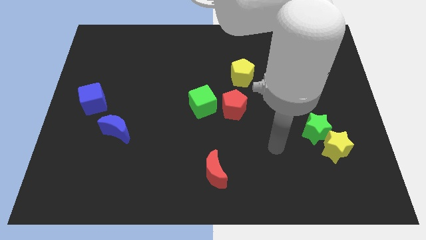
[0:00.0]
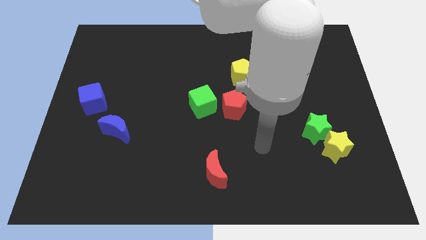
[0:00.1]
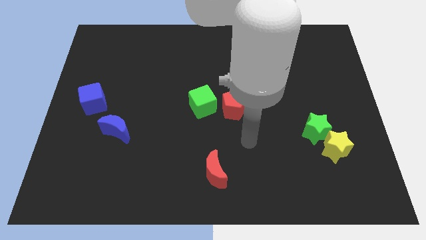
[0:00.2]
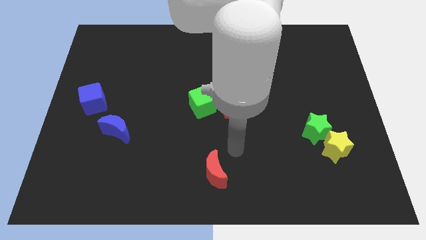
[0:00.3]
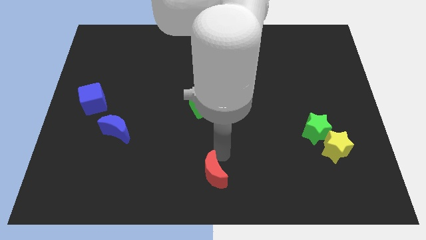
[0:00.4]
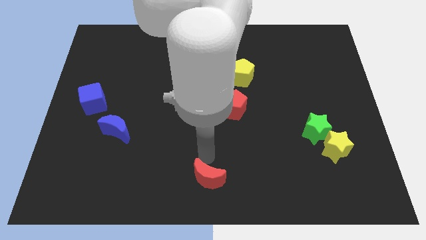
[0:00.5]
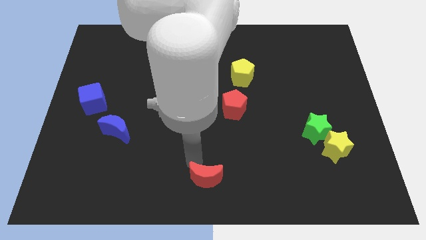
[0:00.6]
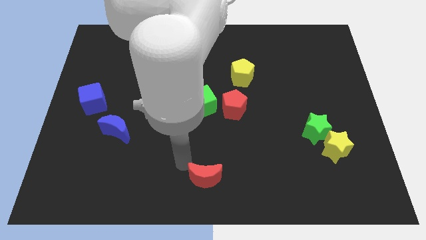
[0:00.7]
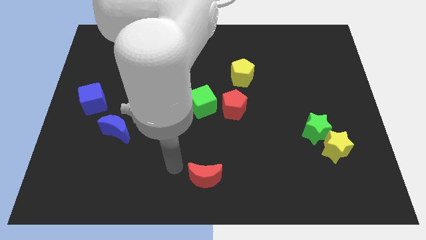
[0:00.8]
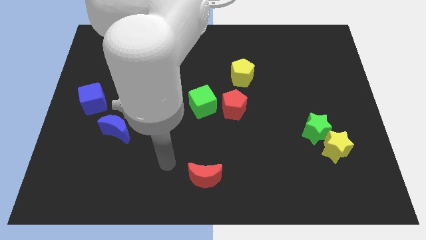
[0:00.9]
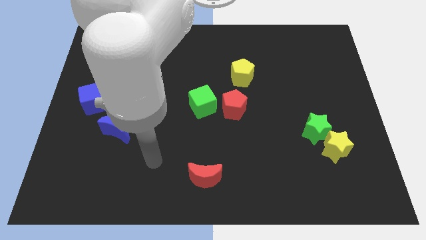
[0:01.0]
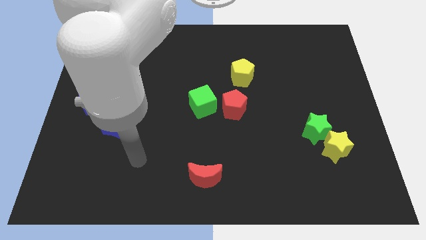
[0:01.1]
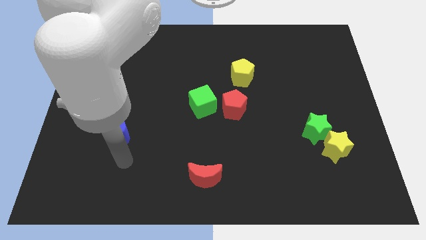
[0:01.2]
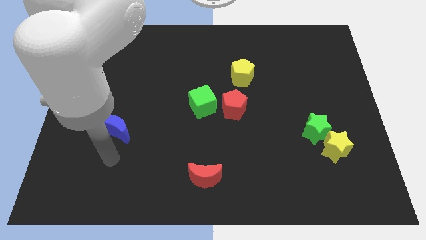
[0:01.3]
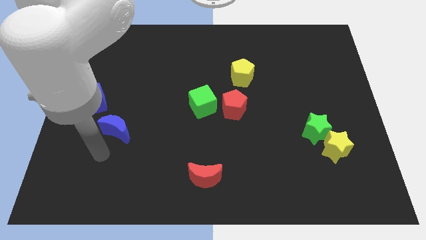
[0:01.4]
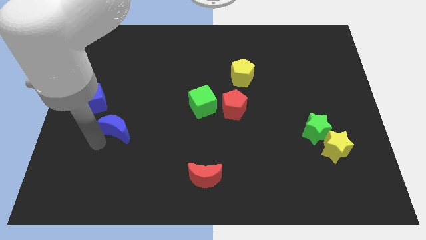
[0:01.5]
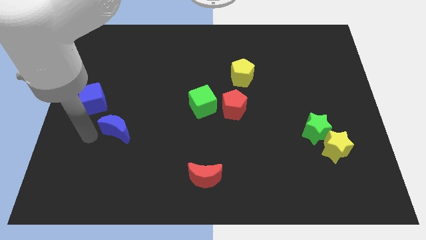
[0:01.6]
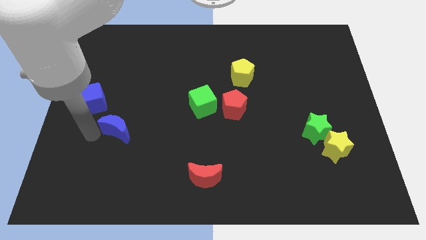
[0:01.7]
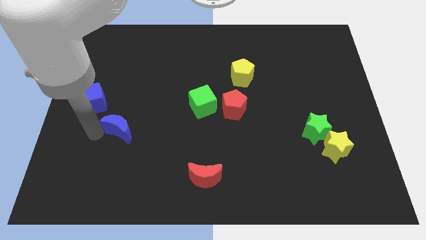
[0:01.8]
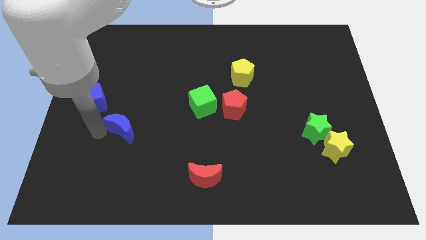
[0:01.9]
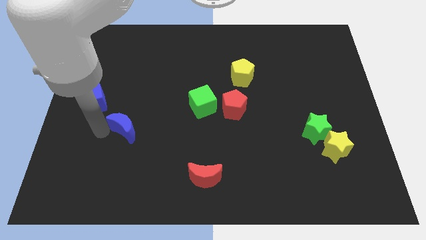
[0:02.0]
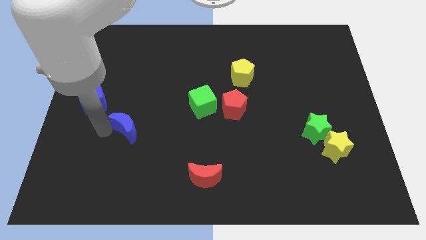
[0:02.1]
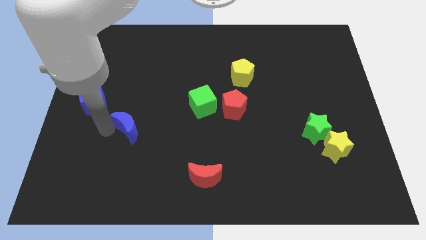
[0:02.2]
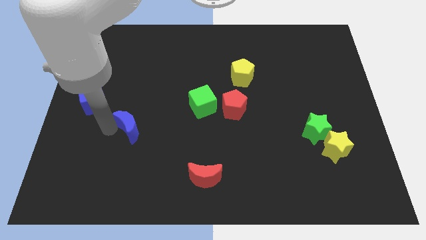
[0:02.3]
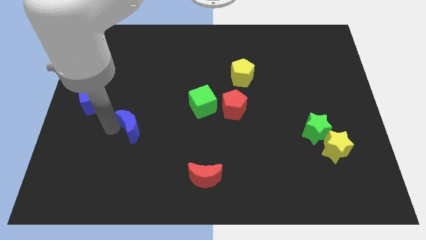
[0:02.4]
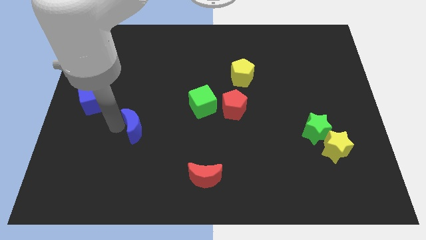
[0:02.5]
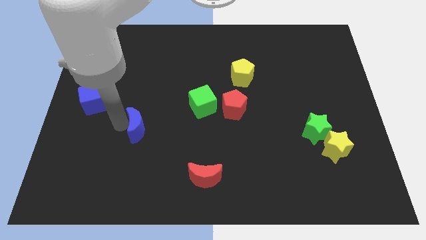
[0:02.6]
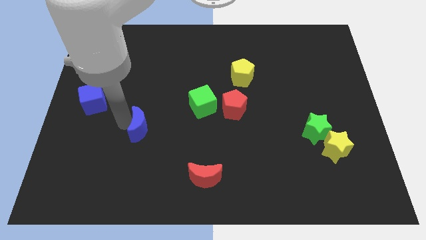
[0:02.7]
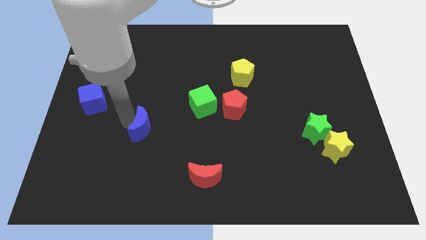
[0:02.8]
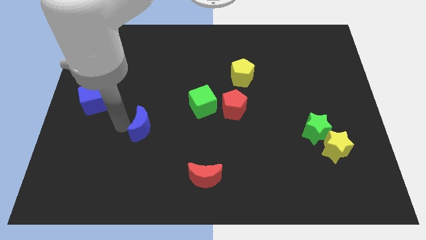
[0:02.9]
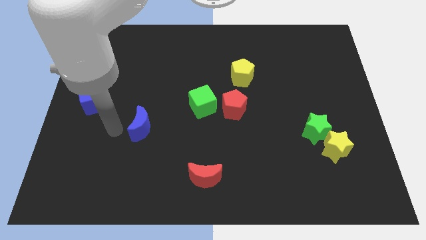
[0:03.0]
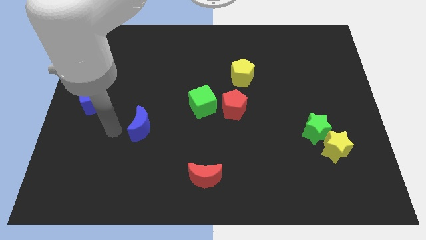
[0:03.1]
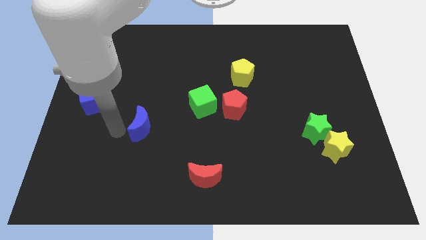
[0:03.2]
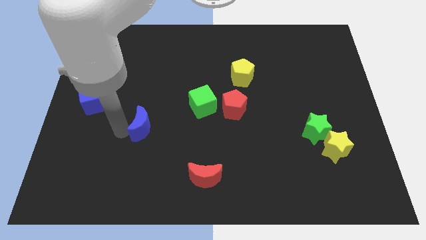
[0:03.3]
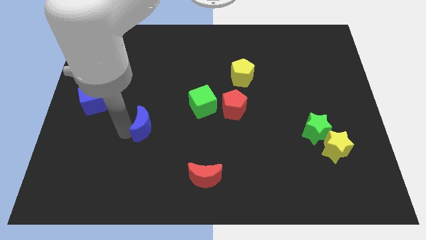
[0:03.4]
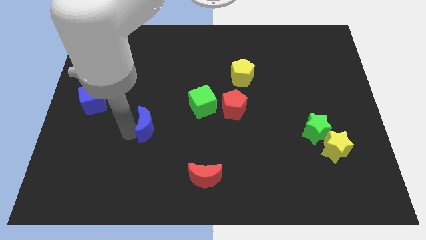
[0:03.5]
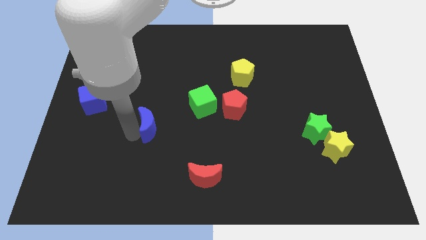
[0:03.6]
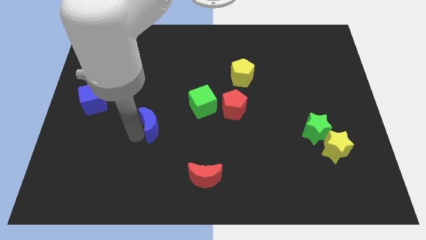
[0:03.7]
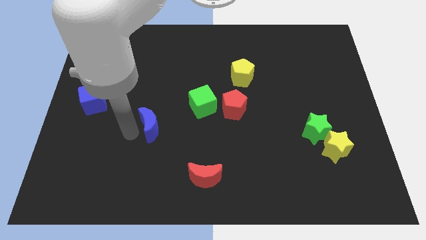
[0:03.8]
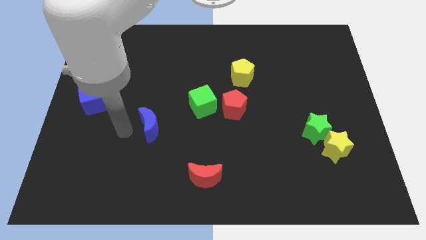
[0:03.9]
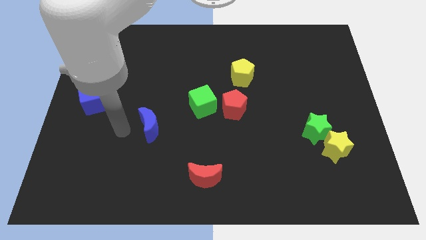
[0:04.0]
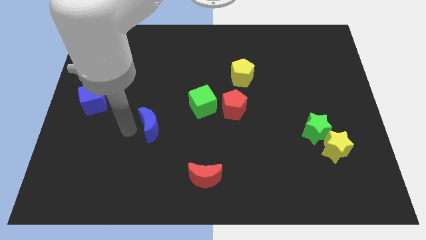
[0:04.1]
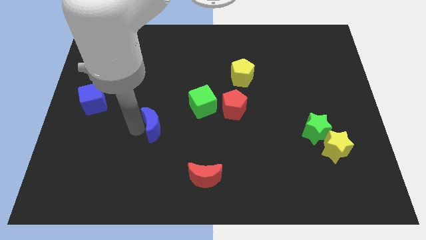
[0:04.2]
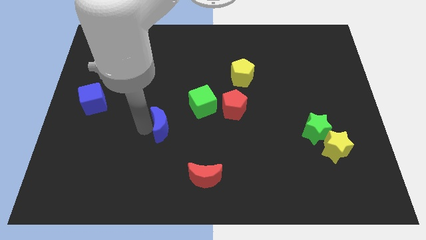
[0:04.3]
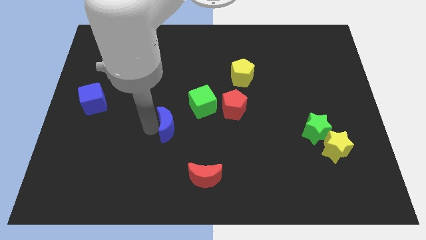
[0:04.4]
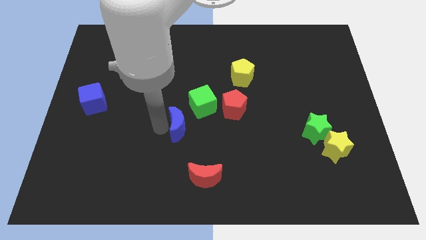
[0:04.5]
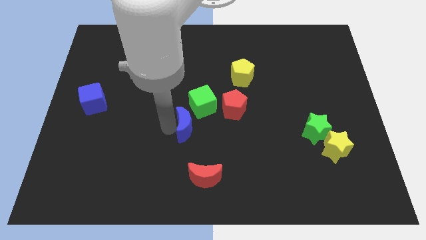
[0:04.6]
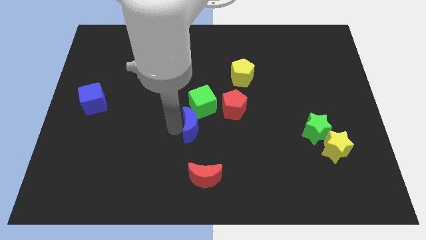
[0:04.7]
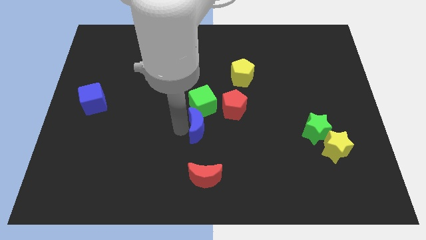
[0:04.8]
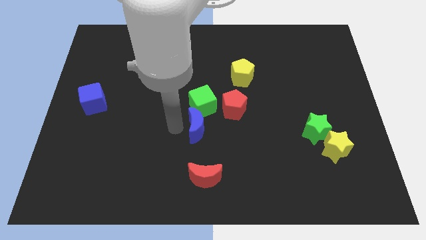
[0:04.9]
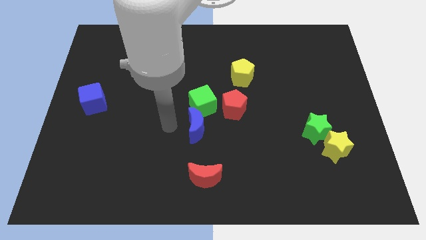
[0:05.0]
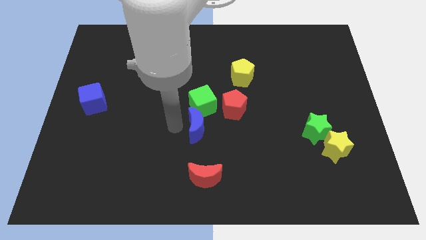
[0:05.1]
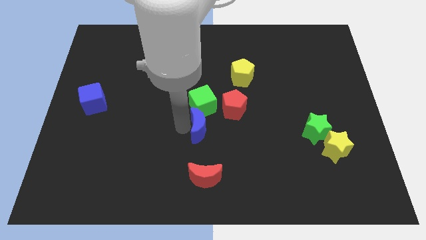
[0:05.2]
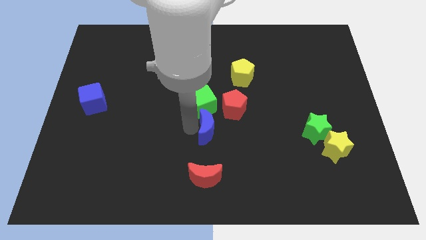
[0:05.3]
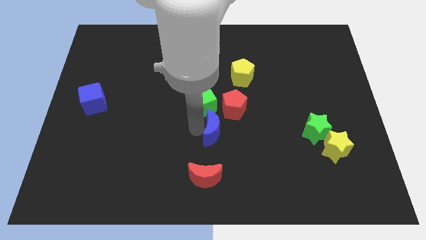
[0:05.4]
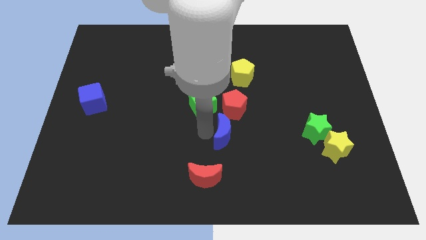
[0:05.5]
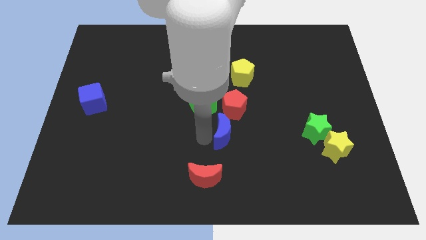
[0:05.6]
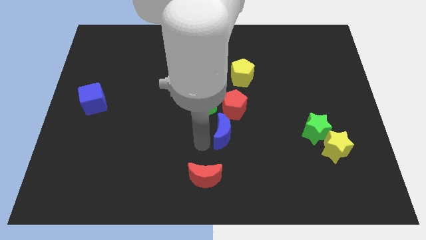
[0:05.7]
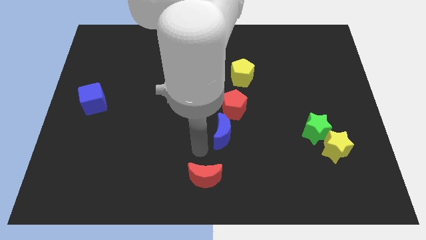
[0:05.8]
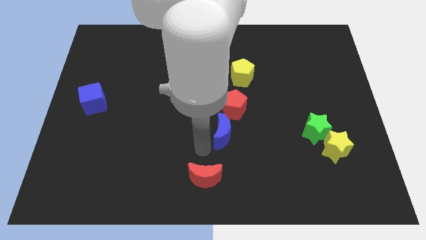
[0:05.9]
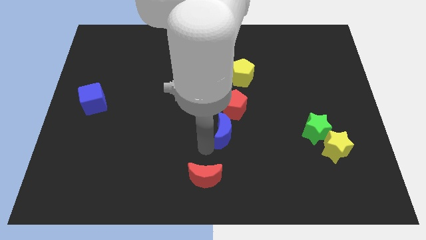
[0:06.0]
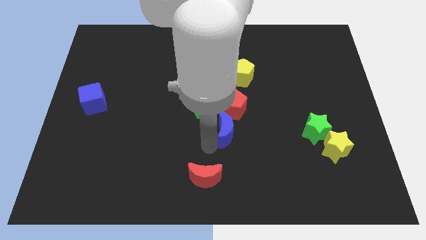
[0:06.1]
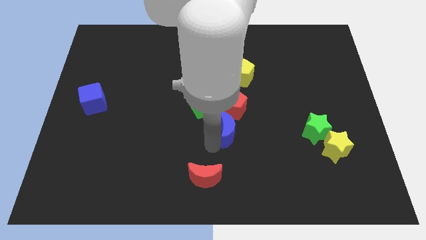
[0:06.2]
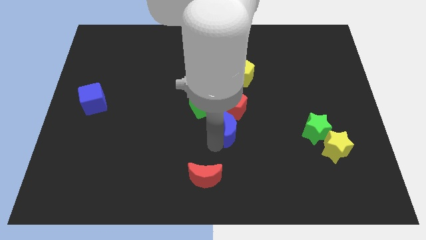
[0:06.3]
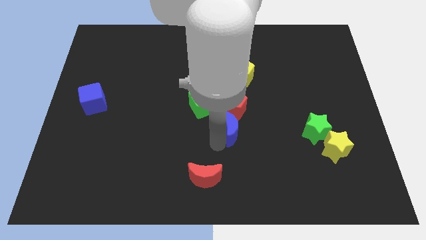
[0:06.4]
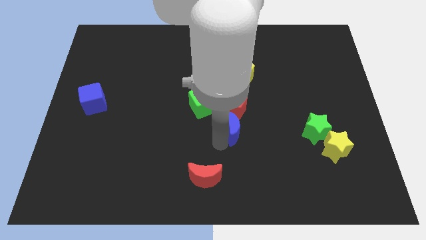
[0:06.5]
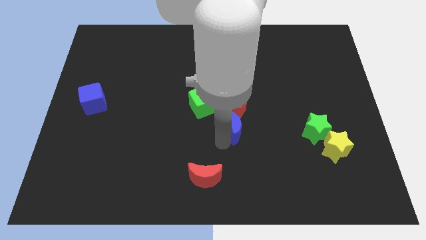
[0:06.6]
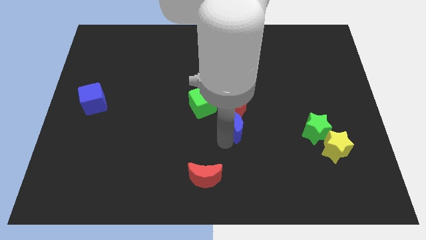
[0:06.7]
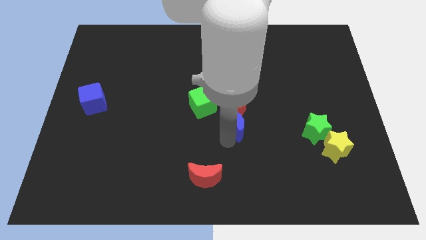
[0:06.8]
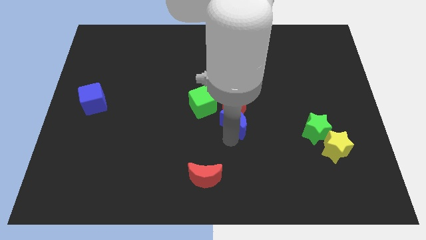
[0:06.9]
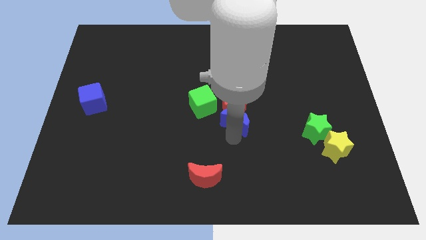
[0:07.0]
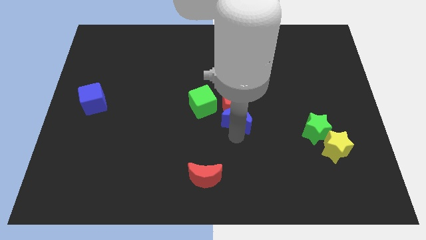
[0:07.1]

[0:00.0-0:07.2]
slide the blue moon just right of the green cube
